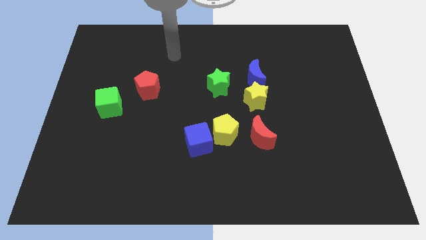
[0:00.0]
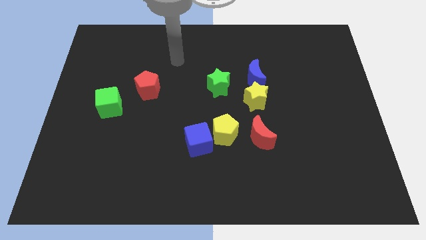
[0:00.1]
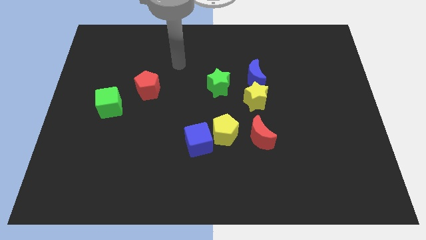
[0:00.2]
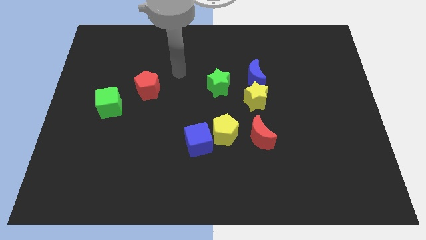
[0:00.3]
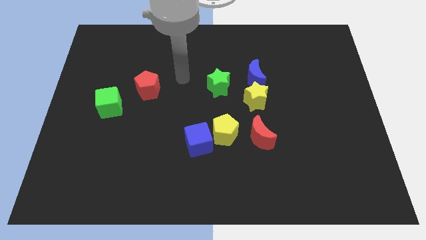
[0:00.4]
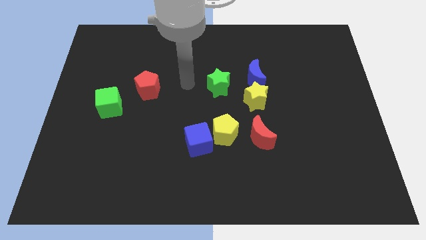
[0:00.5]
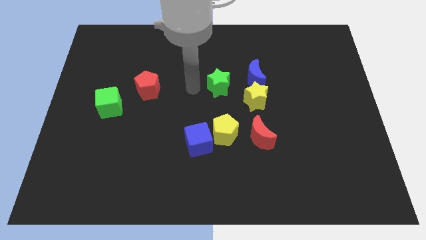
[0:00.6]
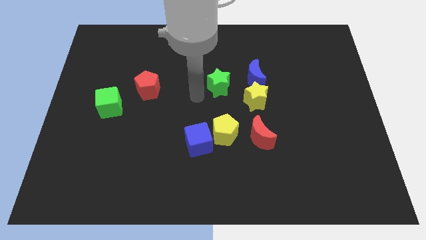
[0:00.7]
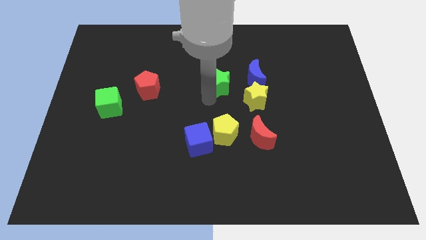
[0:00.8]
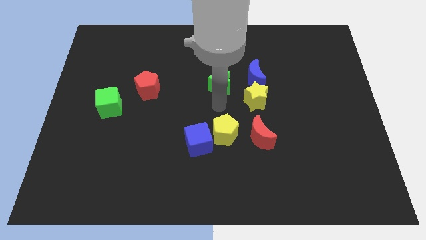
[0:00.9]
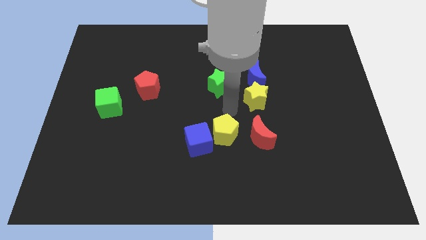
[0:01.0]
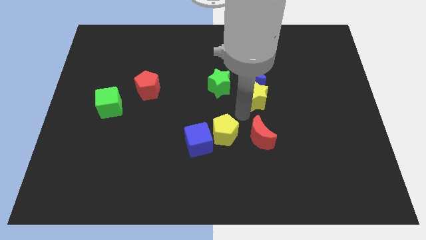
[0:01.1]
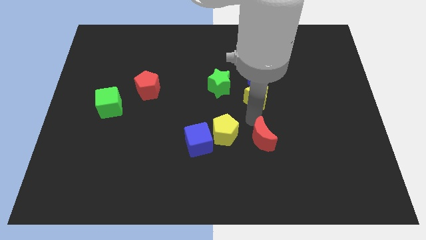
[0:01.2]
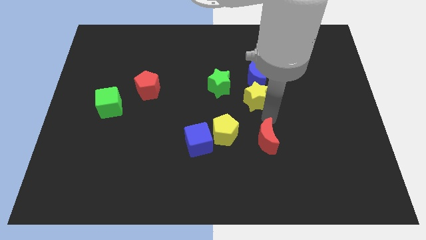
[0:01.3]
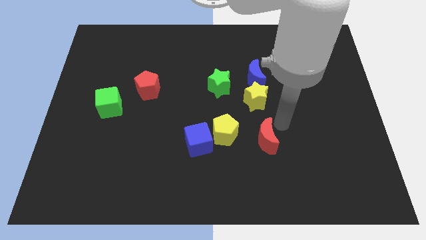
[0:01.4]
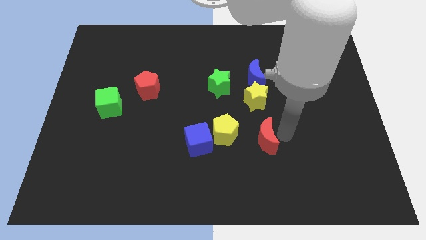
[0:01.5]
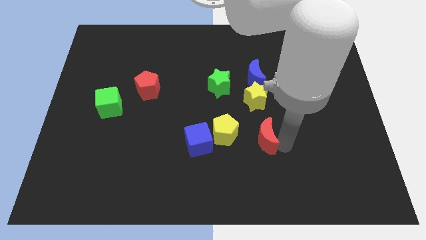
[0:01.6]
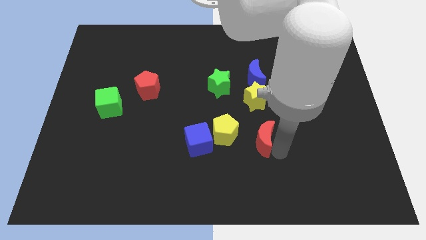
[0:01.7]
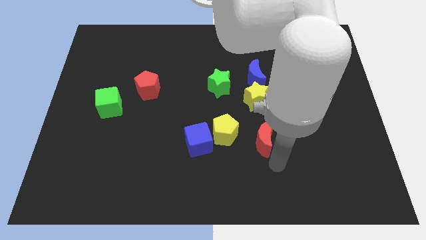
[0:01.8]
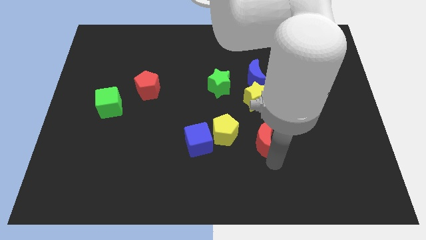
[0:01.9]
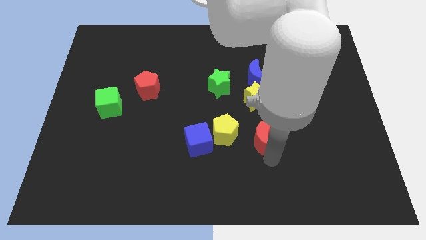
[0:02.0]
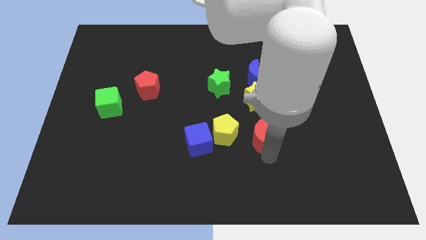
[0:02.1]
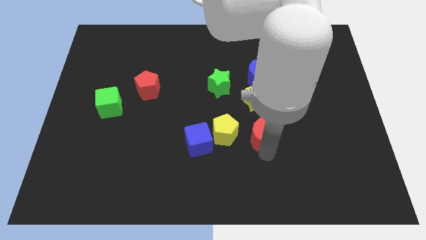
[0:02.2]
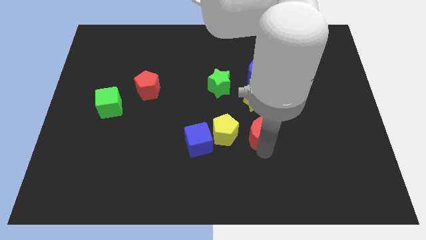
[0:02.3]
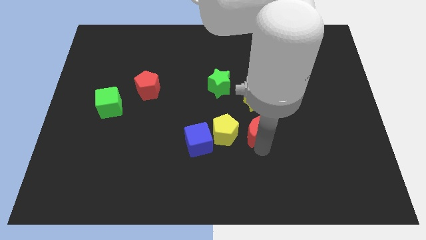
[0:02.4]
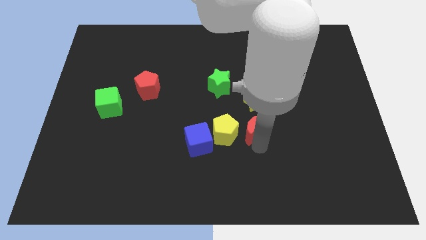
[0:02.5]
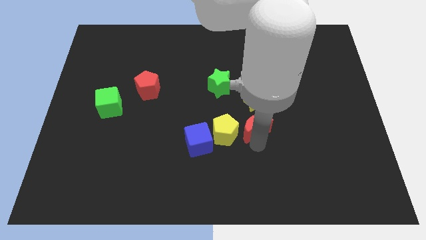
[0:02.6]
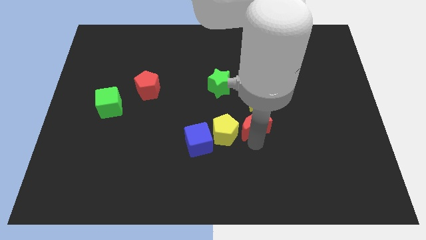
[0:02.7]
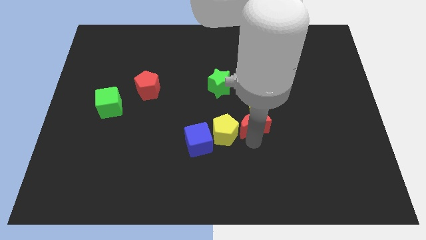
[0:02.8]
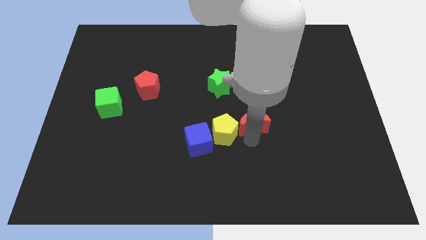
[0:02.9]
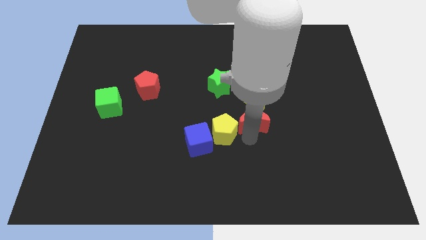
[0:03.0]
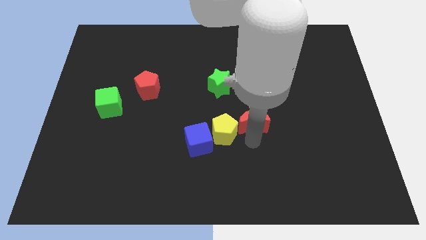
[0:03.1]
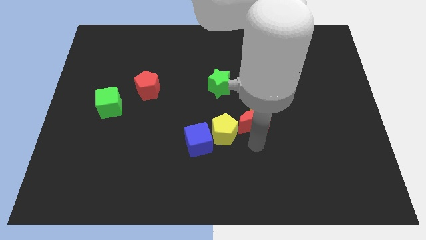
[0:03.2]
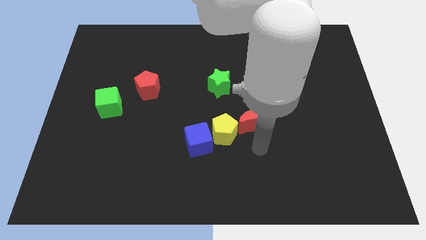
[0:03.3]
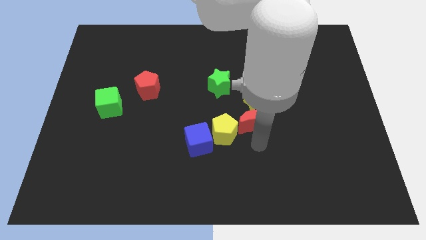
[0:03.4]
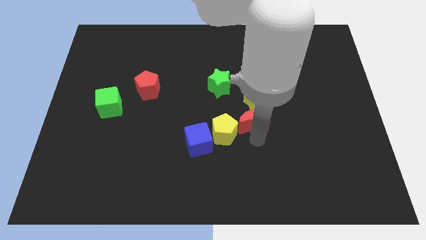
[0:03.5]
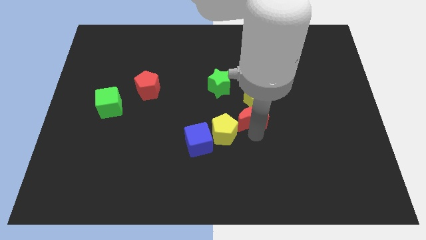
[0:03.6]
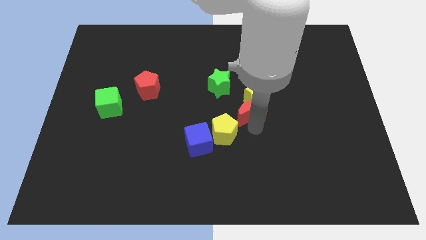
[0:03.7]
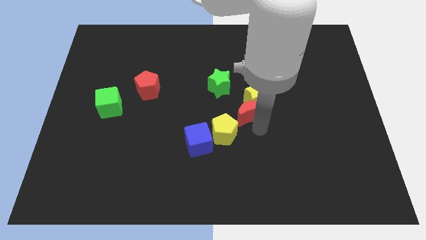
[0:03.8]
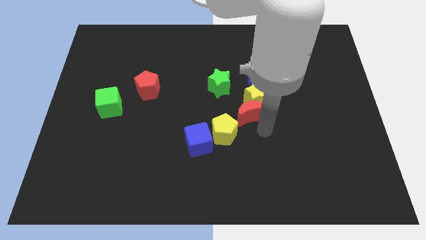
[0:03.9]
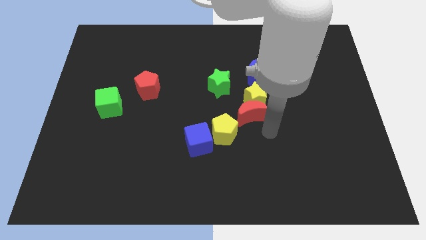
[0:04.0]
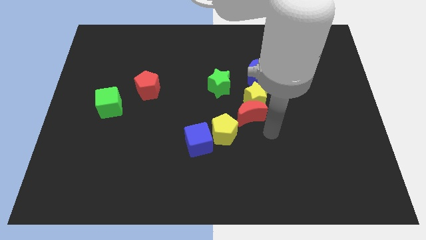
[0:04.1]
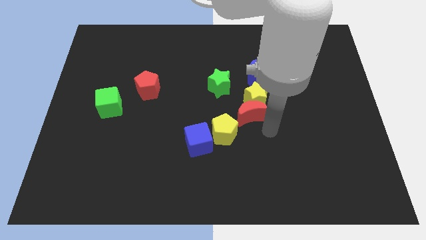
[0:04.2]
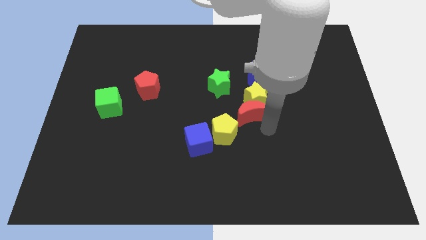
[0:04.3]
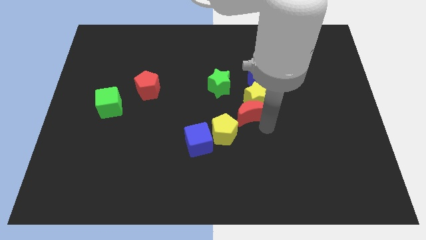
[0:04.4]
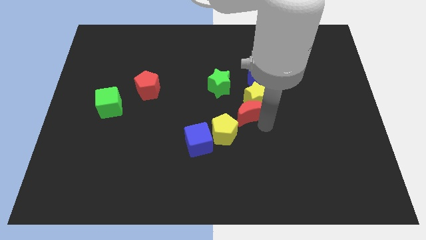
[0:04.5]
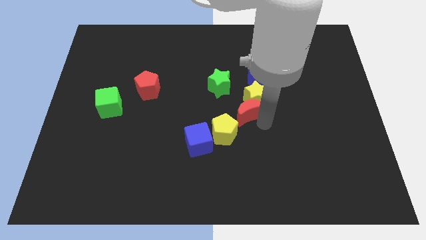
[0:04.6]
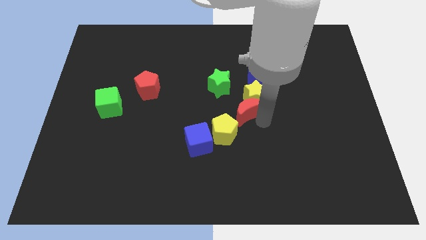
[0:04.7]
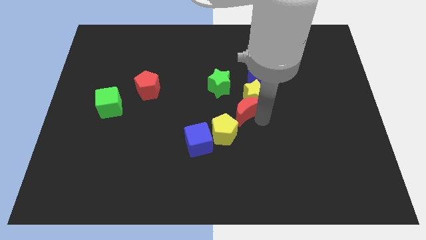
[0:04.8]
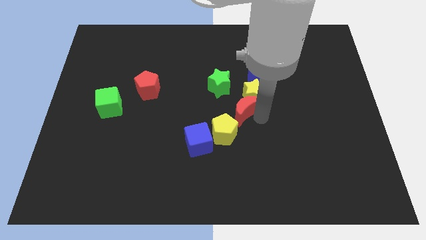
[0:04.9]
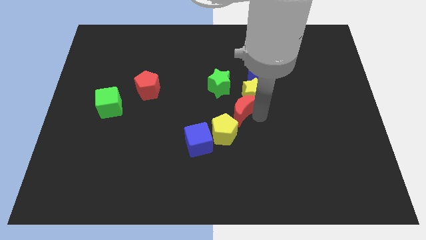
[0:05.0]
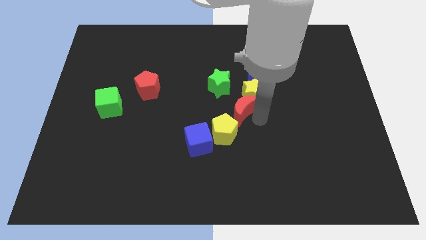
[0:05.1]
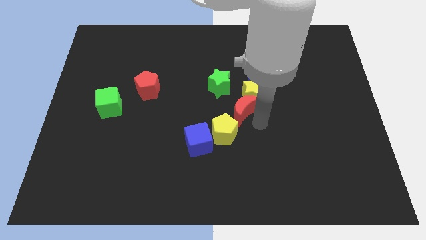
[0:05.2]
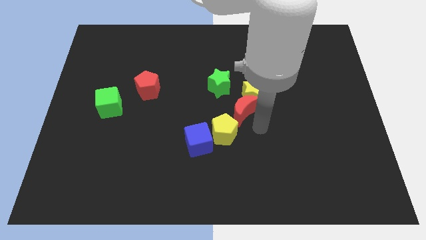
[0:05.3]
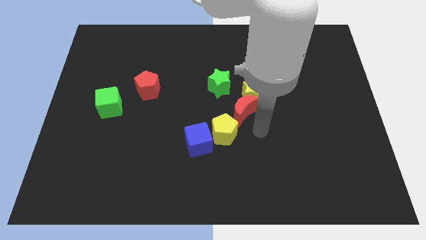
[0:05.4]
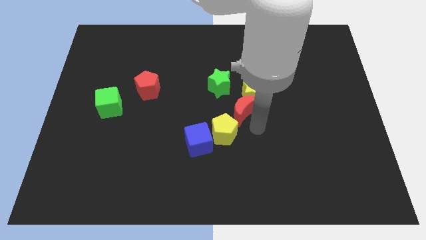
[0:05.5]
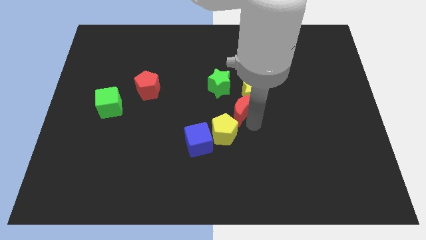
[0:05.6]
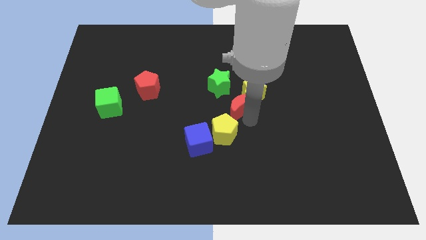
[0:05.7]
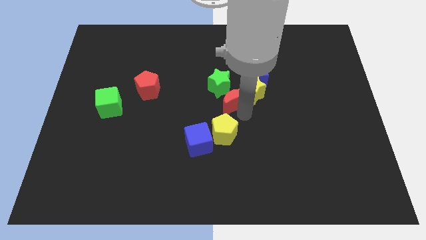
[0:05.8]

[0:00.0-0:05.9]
put the red moon next to the green star

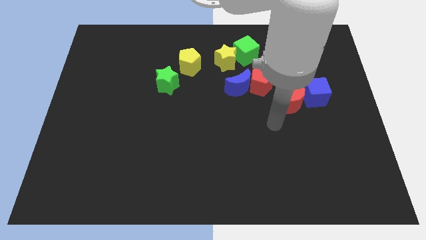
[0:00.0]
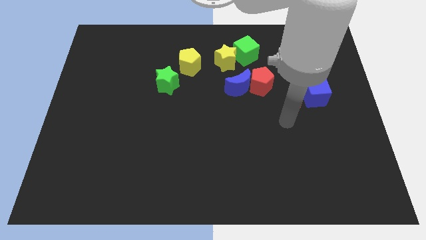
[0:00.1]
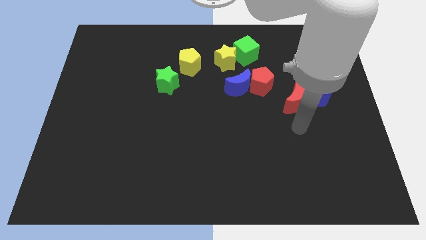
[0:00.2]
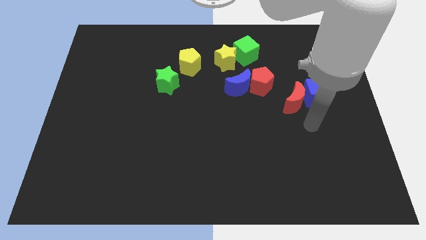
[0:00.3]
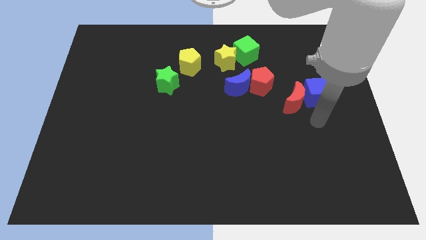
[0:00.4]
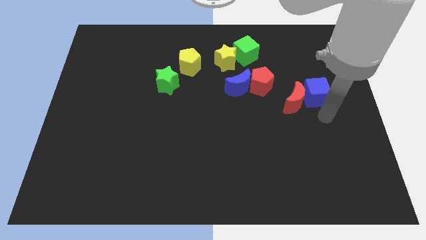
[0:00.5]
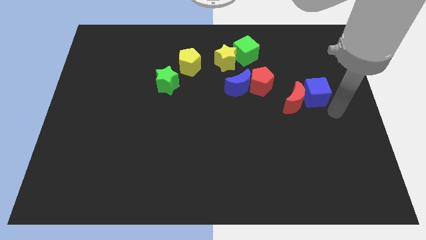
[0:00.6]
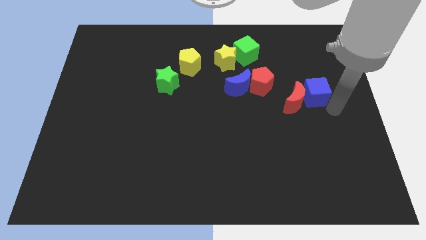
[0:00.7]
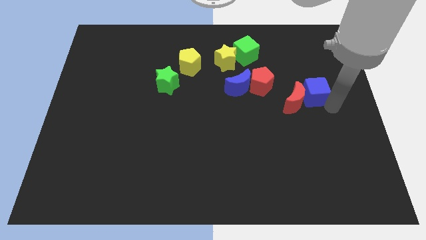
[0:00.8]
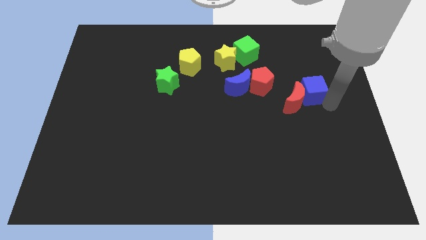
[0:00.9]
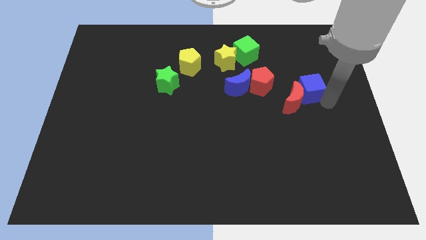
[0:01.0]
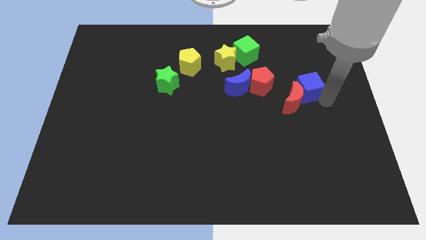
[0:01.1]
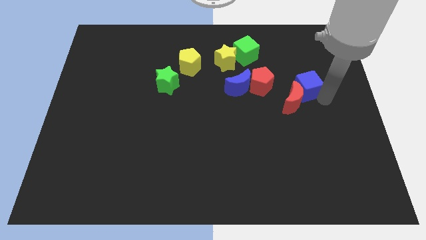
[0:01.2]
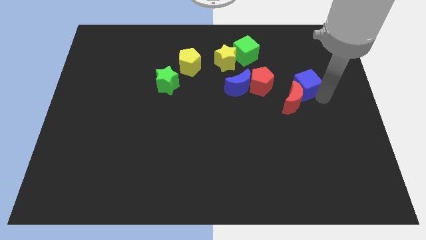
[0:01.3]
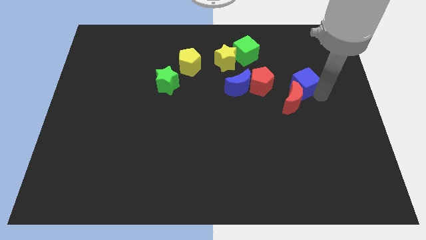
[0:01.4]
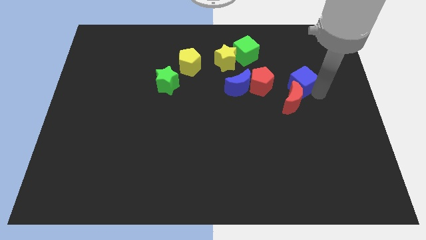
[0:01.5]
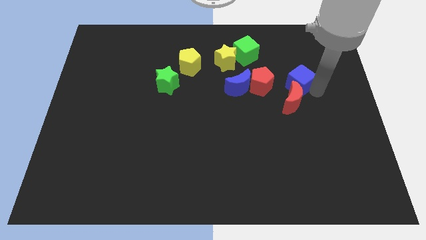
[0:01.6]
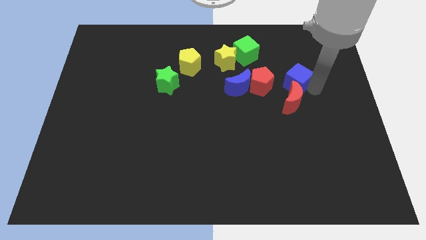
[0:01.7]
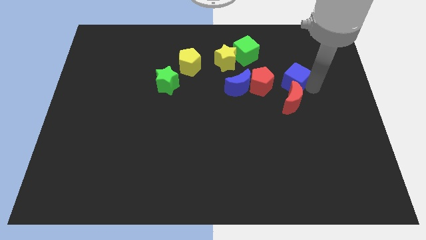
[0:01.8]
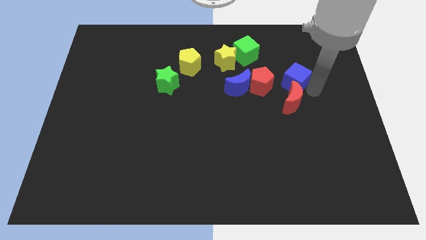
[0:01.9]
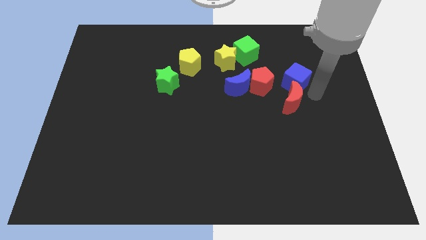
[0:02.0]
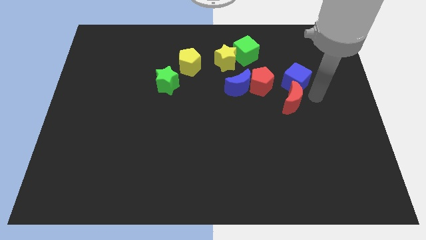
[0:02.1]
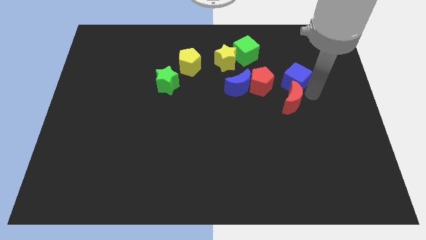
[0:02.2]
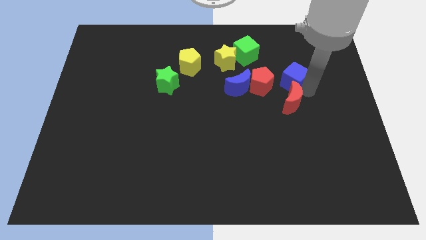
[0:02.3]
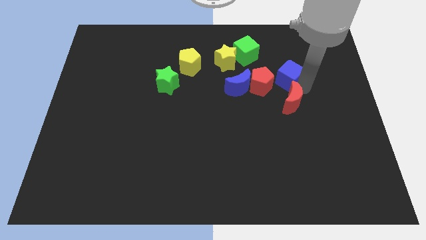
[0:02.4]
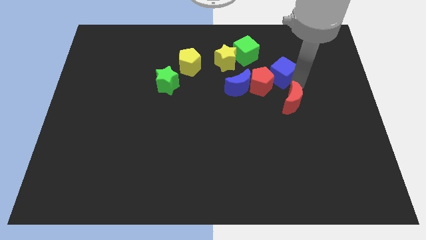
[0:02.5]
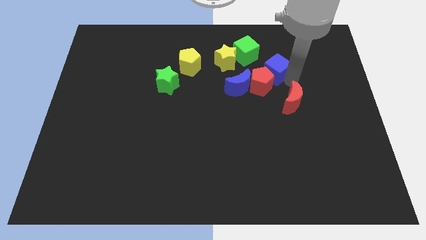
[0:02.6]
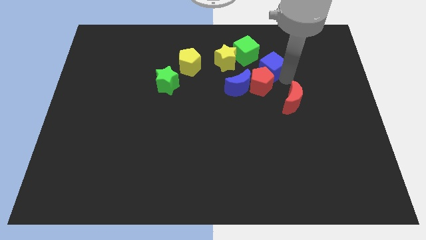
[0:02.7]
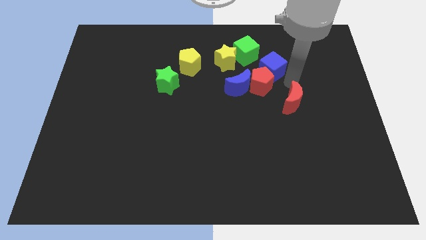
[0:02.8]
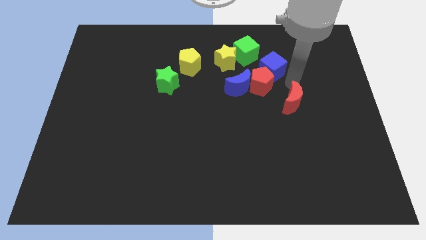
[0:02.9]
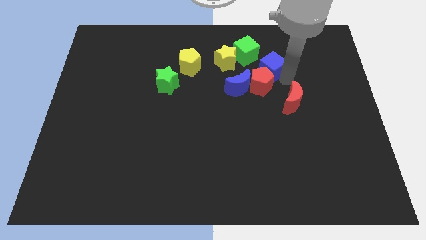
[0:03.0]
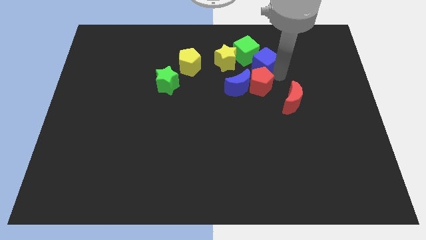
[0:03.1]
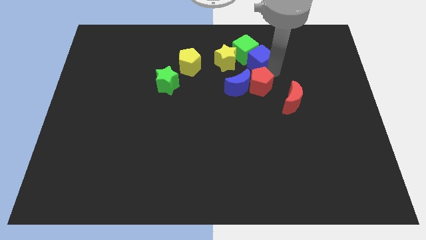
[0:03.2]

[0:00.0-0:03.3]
slide the blue cube towards the green cube
